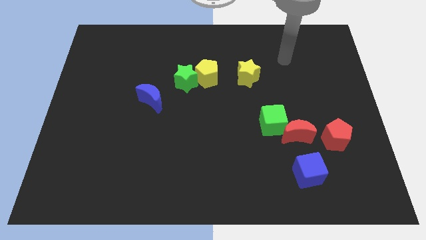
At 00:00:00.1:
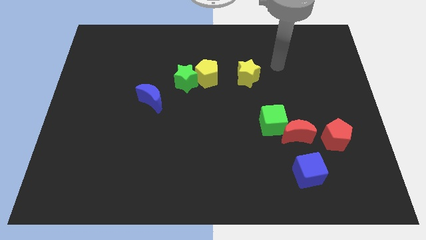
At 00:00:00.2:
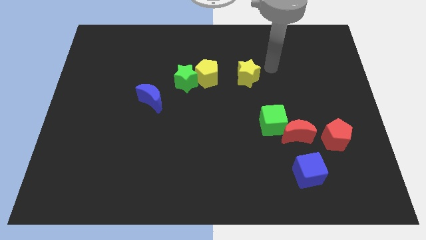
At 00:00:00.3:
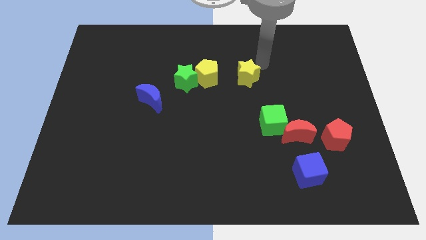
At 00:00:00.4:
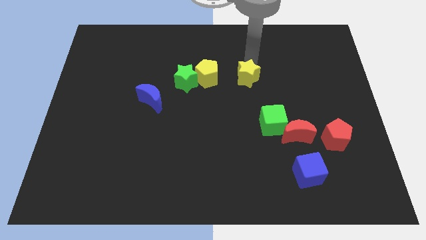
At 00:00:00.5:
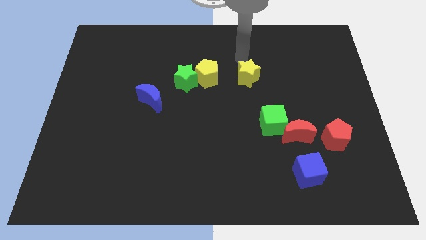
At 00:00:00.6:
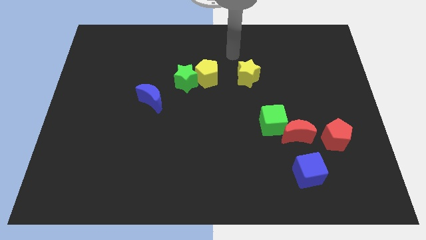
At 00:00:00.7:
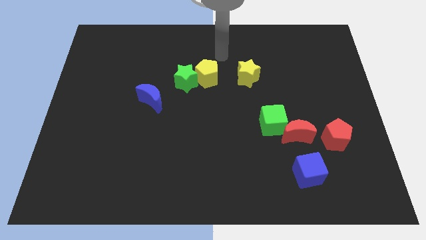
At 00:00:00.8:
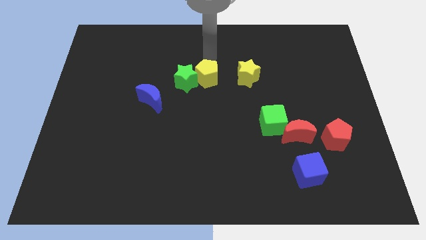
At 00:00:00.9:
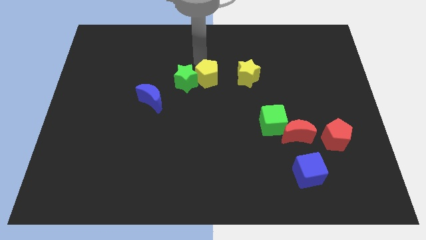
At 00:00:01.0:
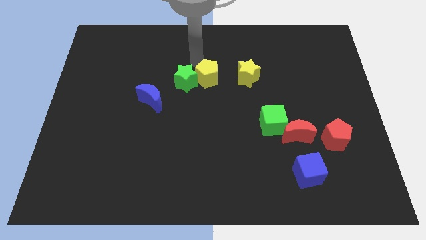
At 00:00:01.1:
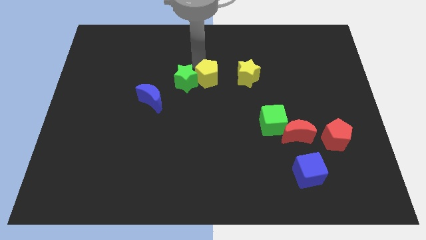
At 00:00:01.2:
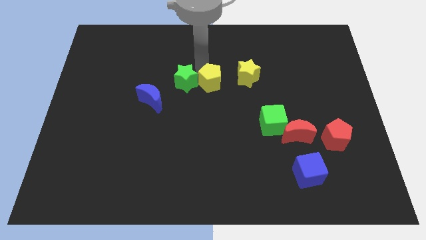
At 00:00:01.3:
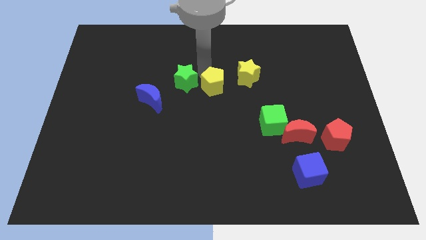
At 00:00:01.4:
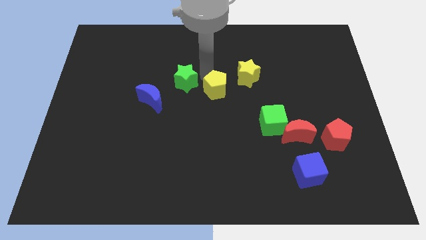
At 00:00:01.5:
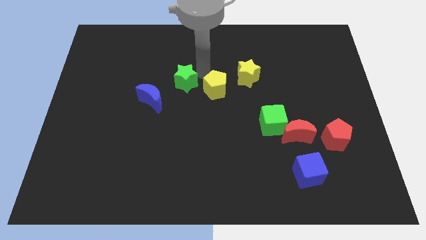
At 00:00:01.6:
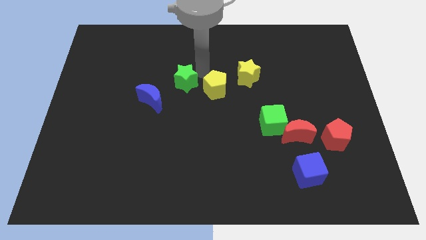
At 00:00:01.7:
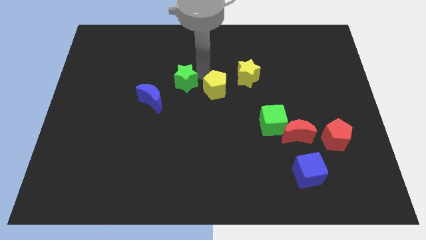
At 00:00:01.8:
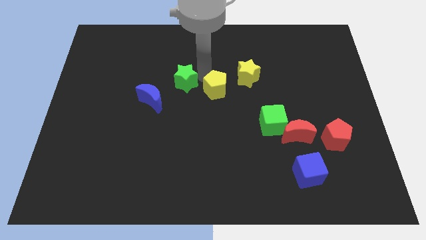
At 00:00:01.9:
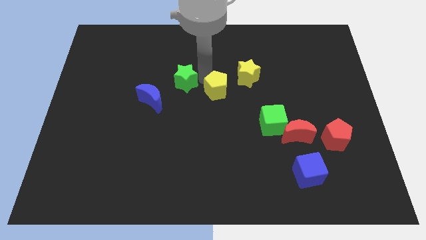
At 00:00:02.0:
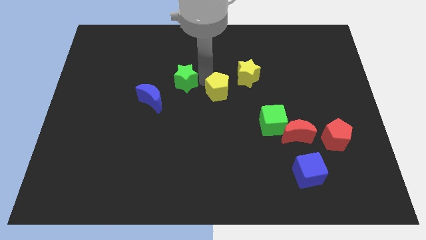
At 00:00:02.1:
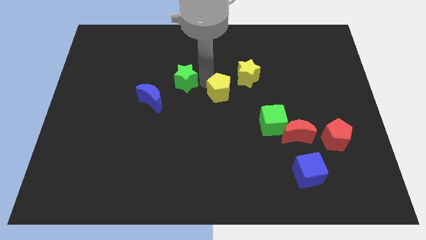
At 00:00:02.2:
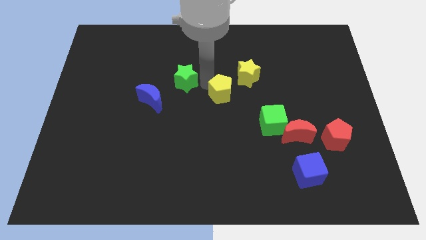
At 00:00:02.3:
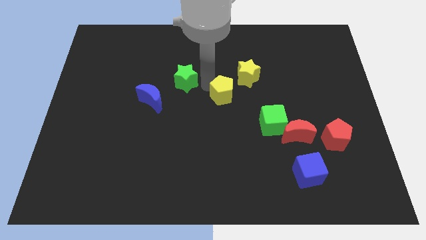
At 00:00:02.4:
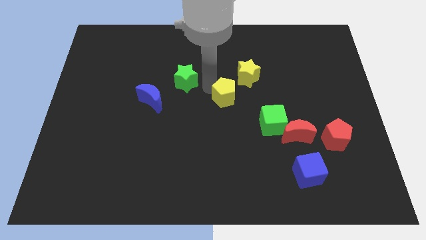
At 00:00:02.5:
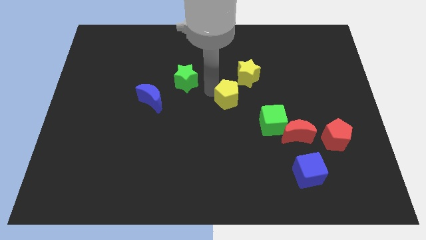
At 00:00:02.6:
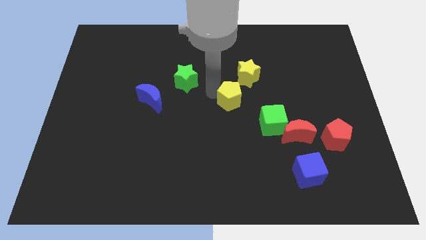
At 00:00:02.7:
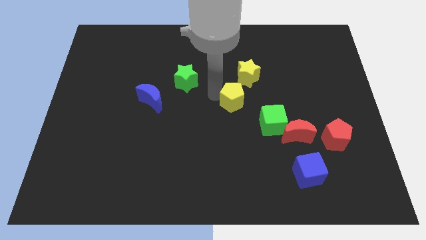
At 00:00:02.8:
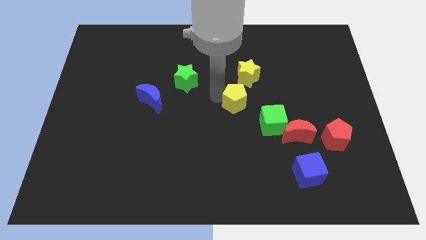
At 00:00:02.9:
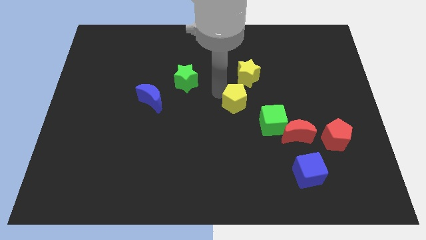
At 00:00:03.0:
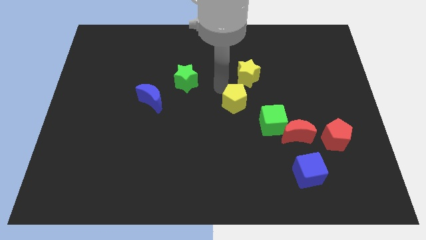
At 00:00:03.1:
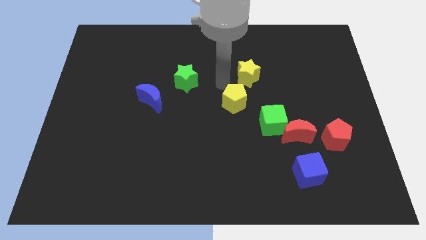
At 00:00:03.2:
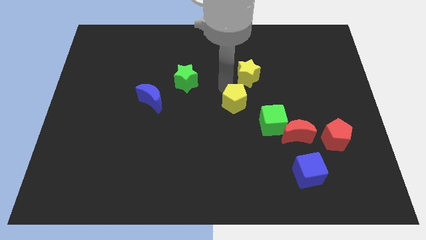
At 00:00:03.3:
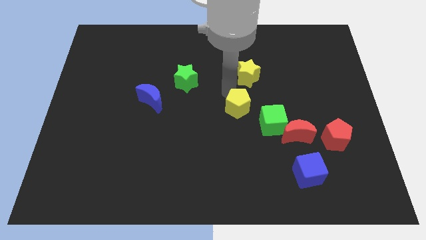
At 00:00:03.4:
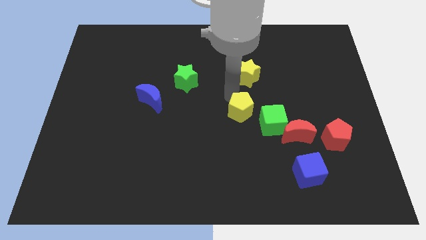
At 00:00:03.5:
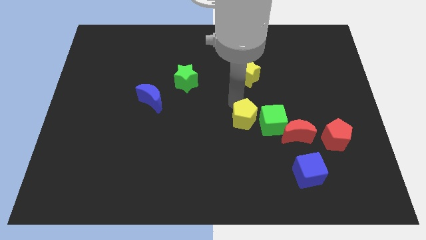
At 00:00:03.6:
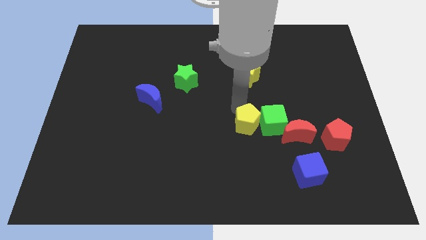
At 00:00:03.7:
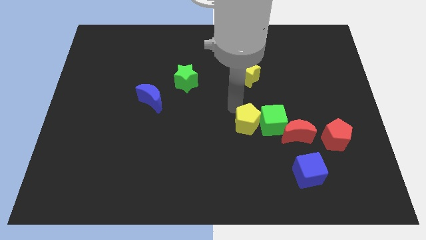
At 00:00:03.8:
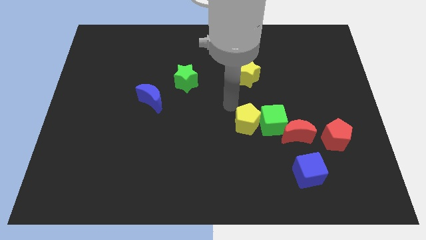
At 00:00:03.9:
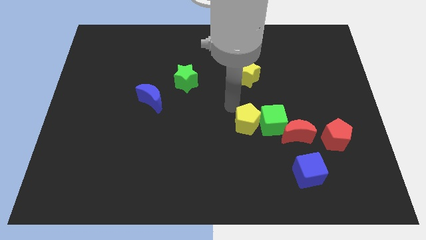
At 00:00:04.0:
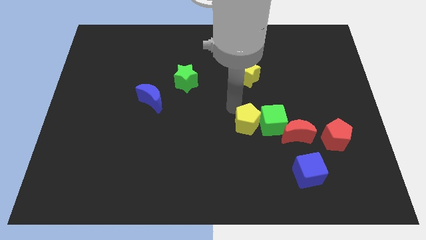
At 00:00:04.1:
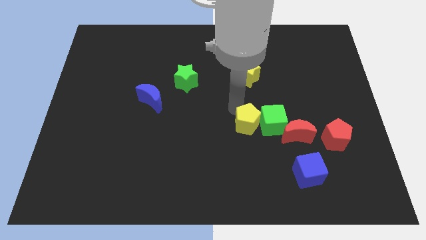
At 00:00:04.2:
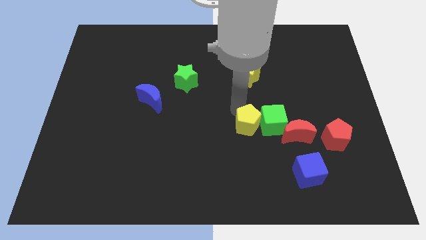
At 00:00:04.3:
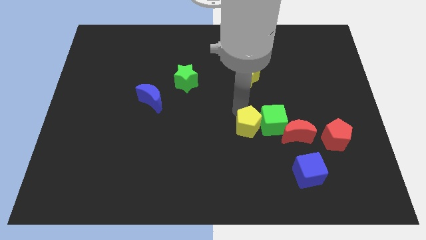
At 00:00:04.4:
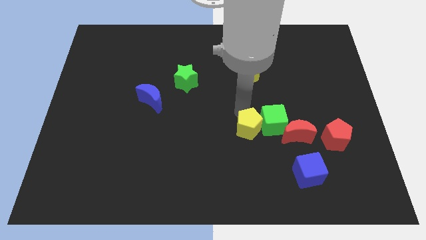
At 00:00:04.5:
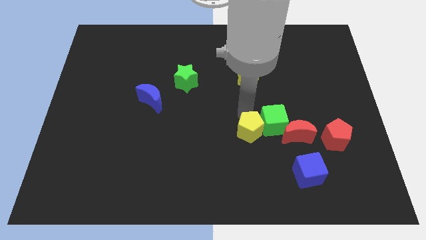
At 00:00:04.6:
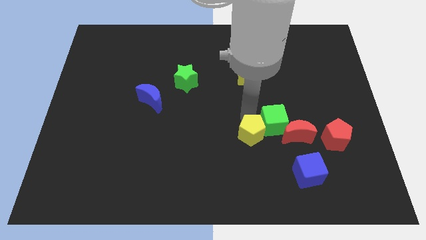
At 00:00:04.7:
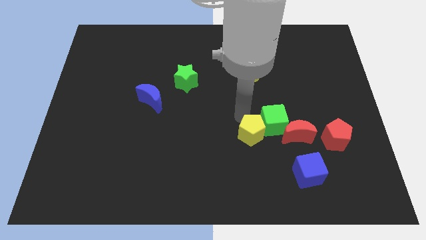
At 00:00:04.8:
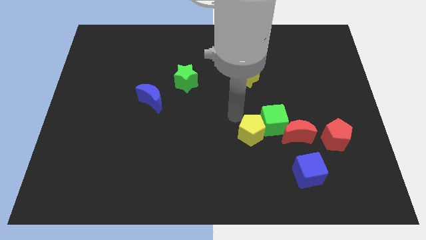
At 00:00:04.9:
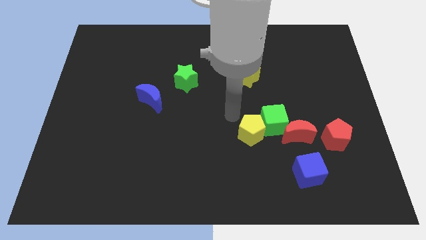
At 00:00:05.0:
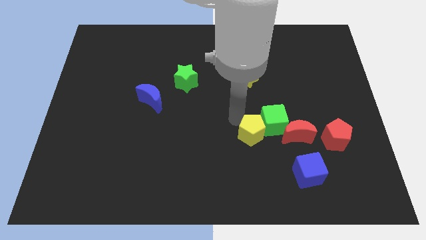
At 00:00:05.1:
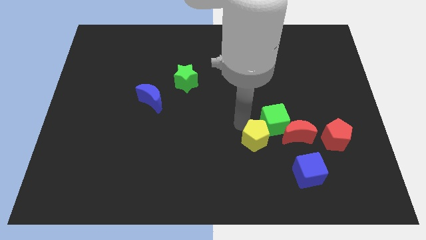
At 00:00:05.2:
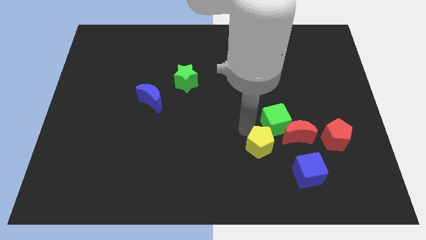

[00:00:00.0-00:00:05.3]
slide the yellow pentagon diagonally down and to the left of the red moon

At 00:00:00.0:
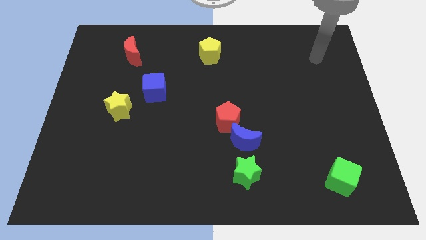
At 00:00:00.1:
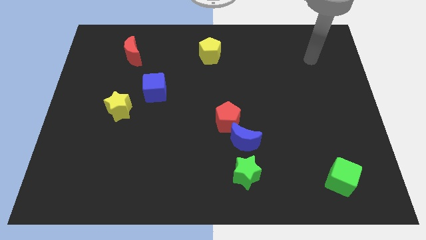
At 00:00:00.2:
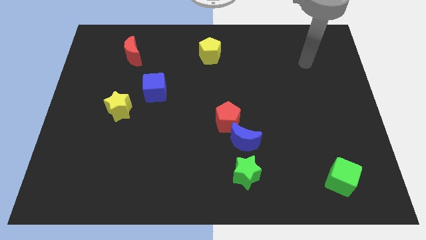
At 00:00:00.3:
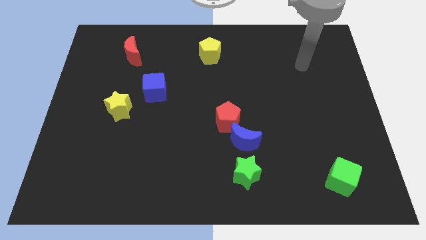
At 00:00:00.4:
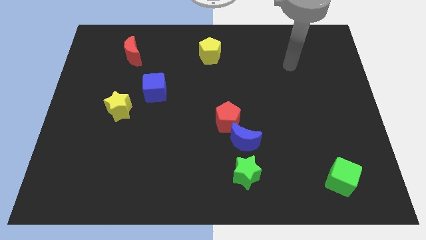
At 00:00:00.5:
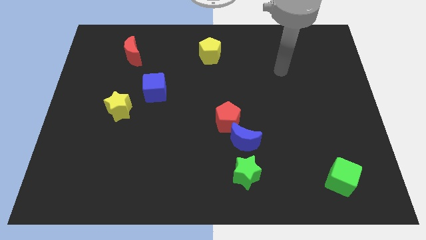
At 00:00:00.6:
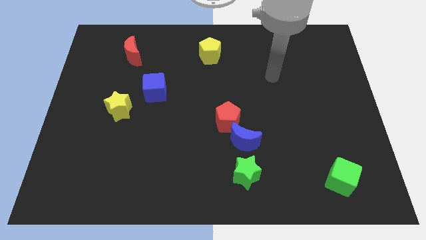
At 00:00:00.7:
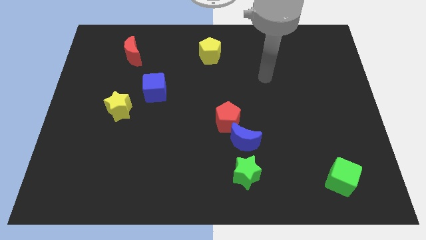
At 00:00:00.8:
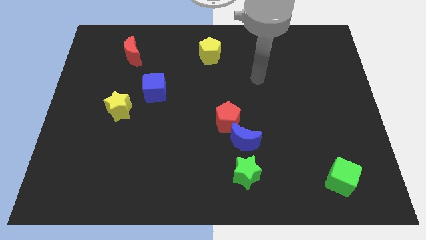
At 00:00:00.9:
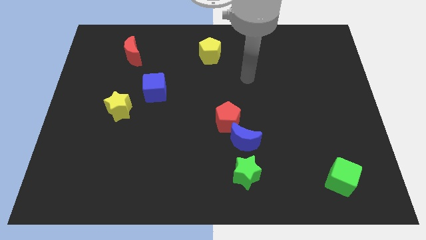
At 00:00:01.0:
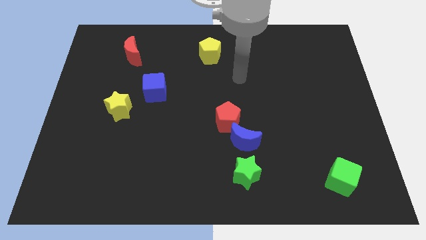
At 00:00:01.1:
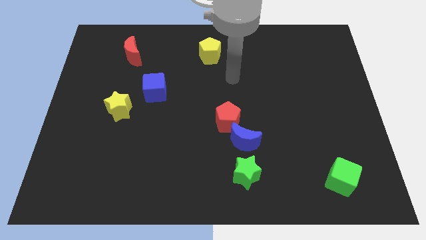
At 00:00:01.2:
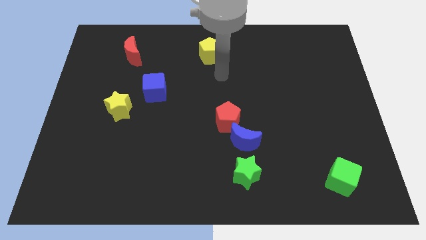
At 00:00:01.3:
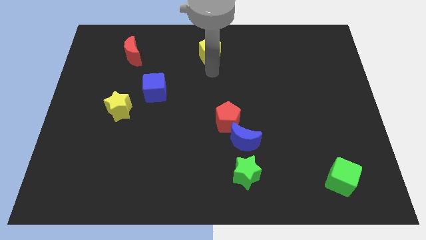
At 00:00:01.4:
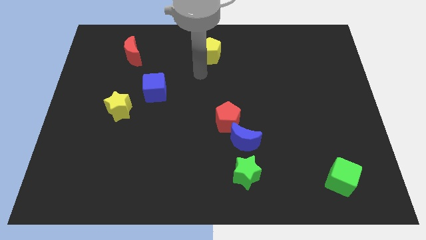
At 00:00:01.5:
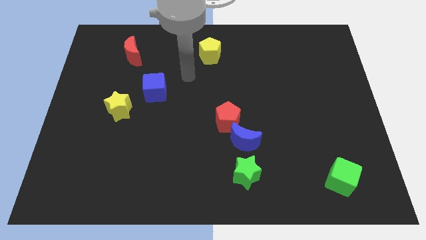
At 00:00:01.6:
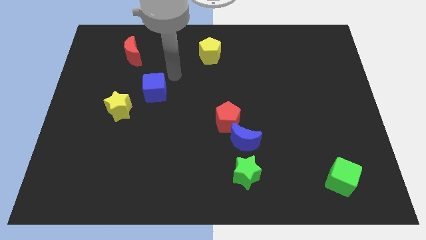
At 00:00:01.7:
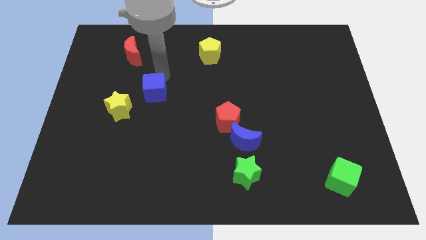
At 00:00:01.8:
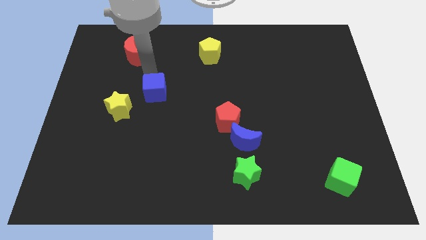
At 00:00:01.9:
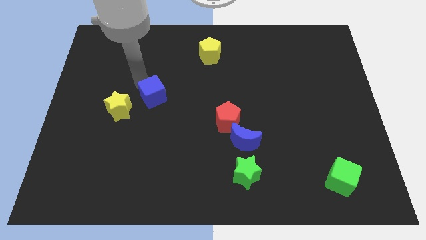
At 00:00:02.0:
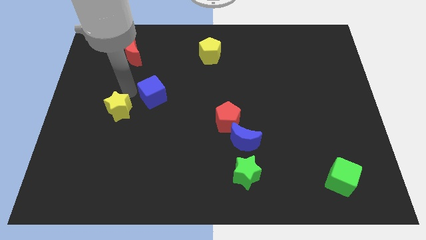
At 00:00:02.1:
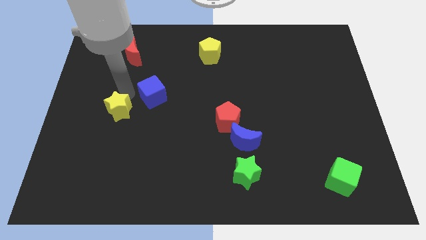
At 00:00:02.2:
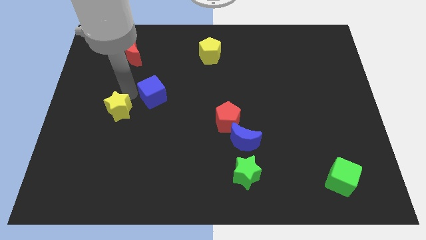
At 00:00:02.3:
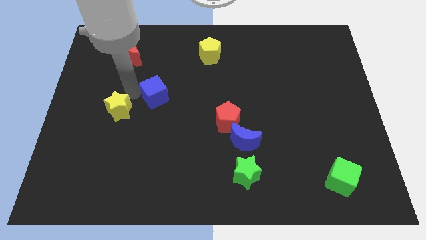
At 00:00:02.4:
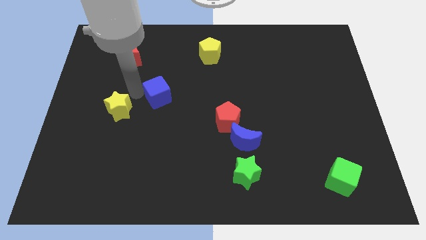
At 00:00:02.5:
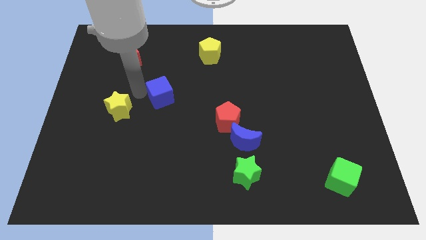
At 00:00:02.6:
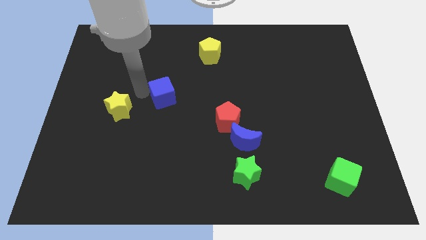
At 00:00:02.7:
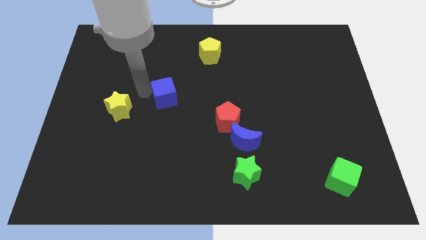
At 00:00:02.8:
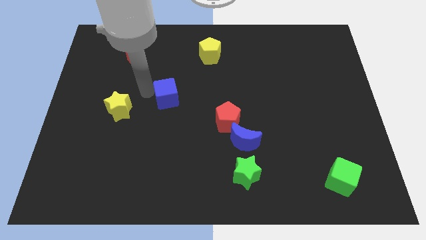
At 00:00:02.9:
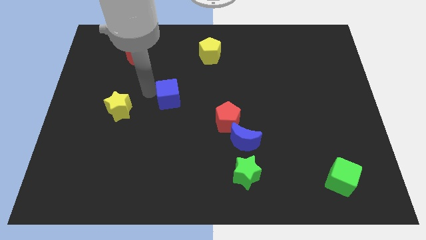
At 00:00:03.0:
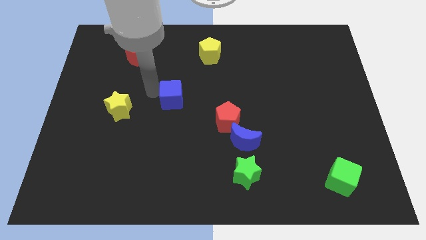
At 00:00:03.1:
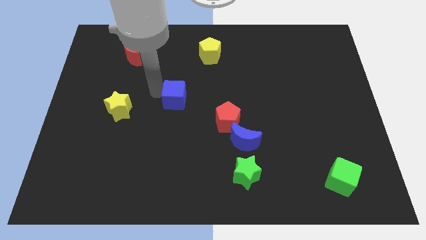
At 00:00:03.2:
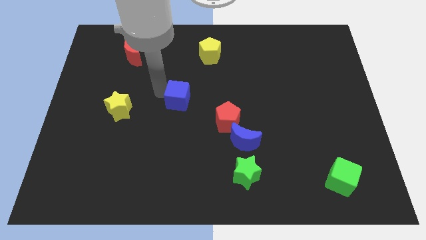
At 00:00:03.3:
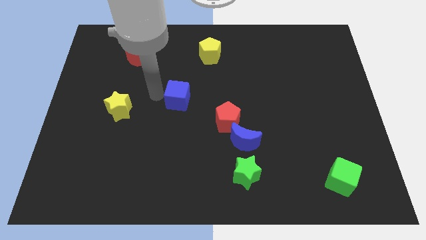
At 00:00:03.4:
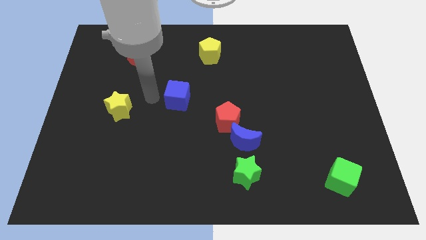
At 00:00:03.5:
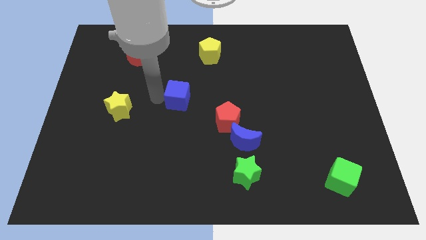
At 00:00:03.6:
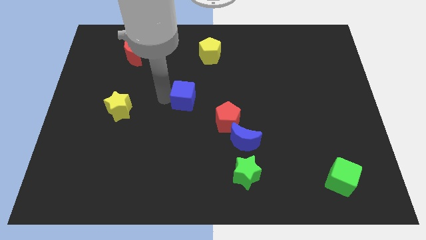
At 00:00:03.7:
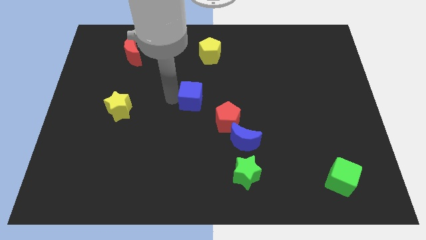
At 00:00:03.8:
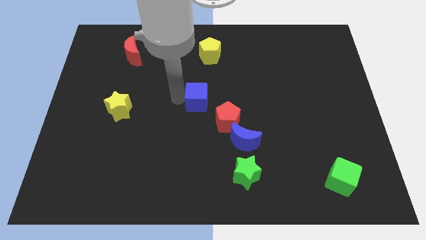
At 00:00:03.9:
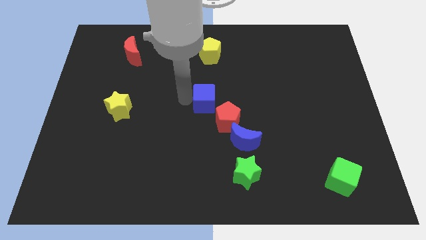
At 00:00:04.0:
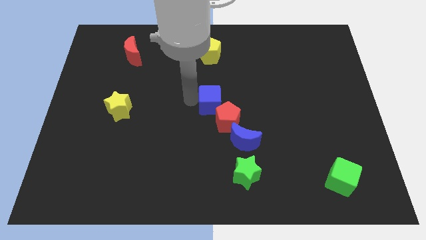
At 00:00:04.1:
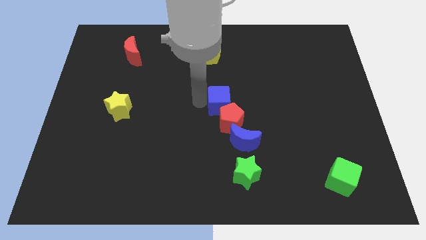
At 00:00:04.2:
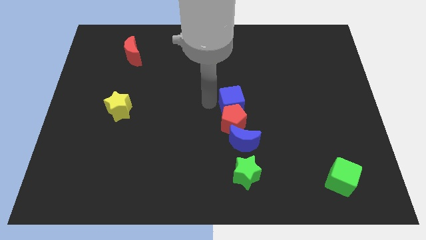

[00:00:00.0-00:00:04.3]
slide the blue cube diagonally up and to the right of the red pentagon
